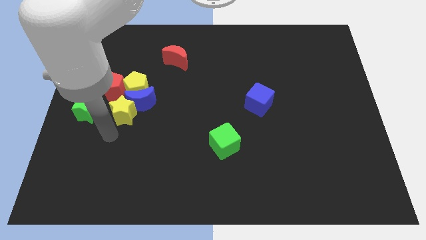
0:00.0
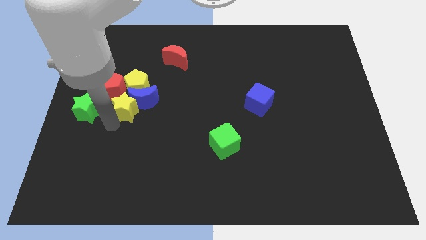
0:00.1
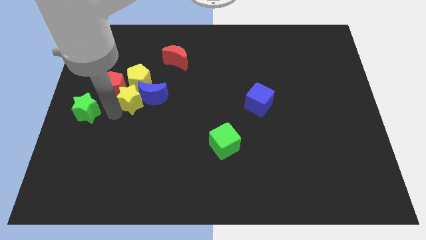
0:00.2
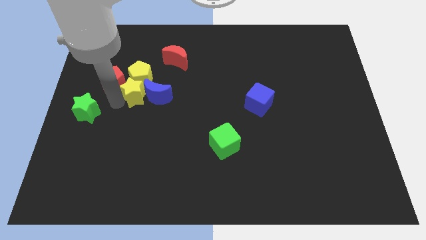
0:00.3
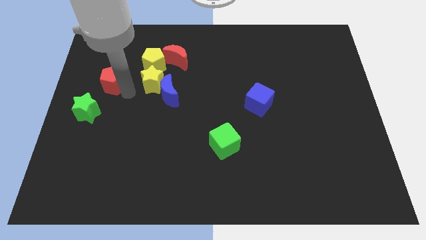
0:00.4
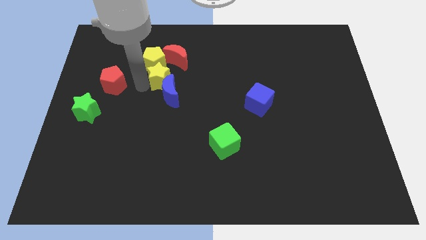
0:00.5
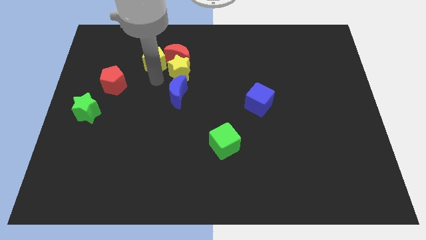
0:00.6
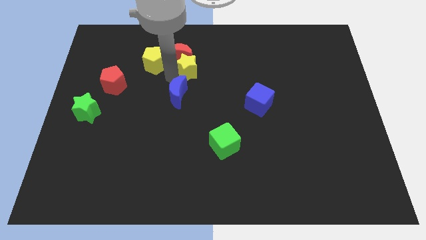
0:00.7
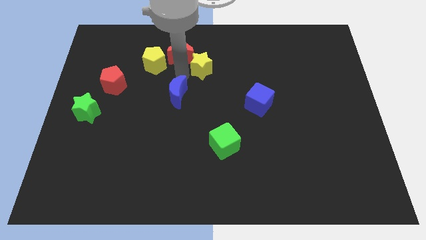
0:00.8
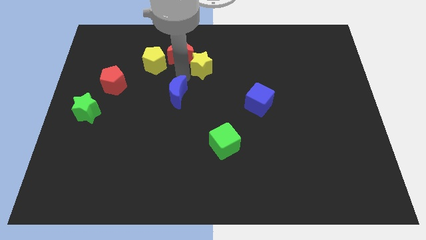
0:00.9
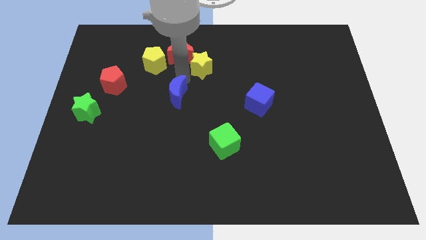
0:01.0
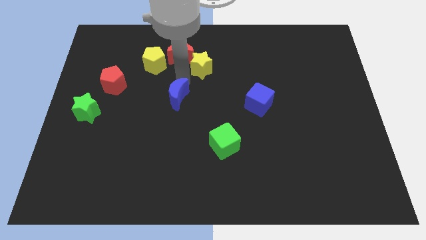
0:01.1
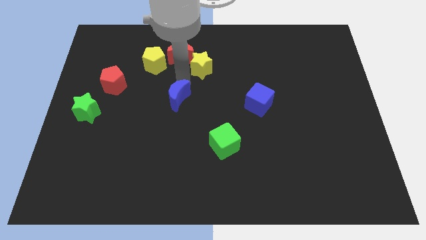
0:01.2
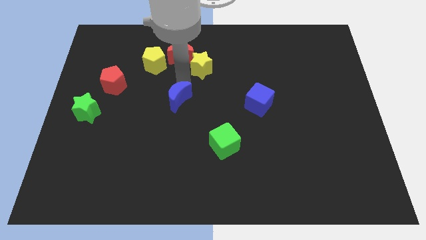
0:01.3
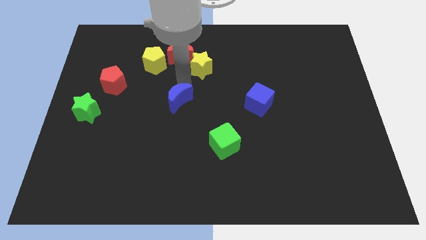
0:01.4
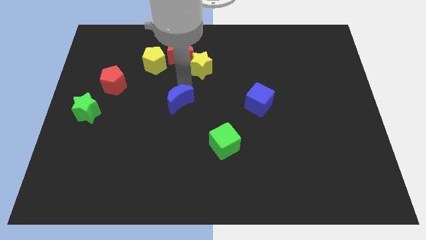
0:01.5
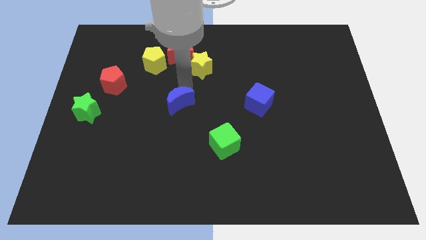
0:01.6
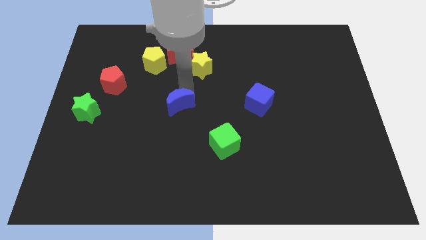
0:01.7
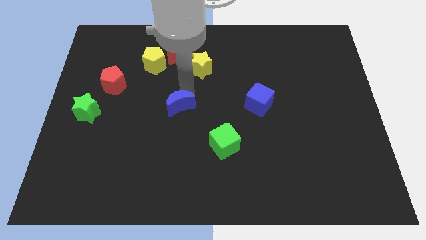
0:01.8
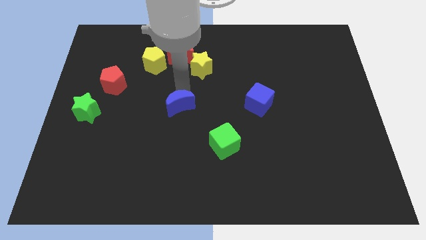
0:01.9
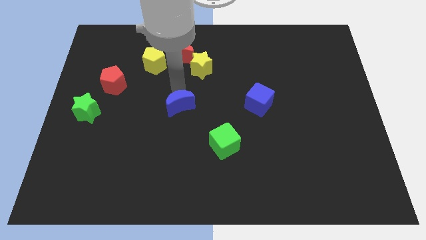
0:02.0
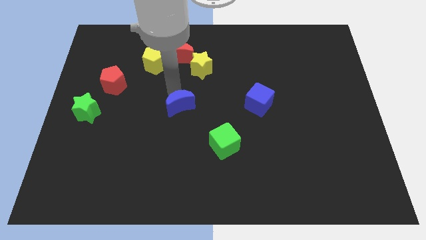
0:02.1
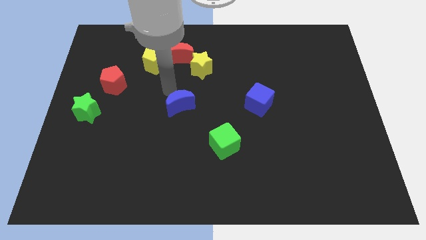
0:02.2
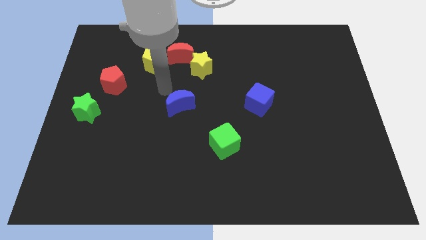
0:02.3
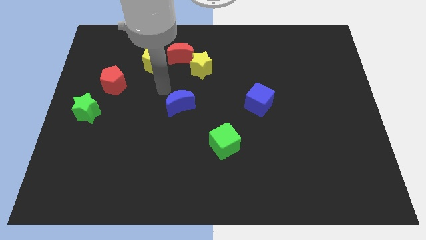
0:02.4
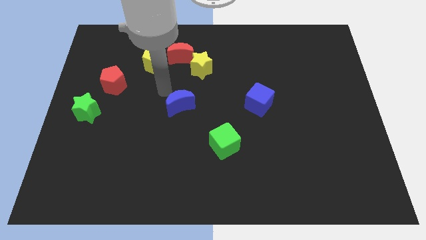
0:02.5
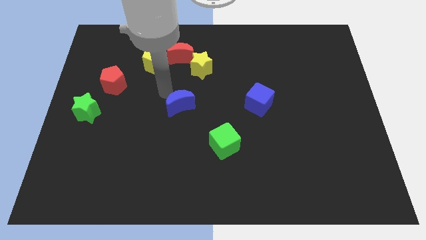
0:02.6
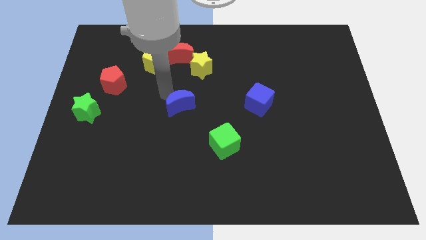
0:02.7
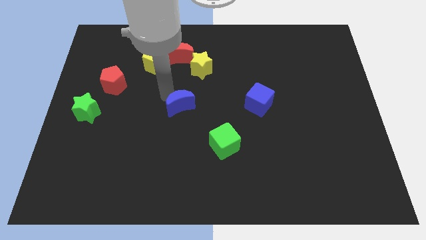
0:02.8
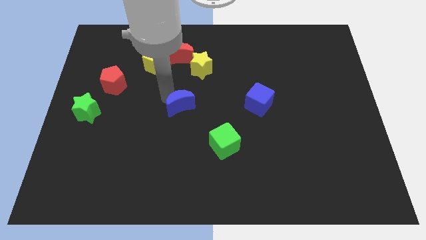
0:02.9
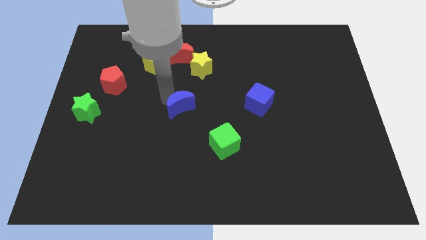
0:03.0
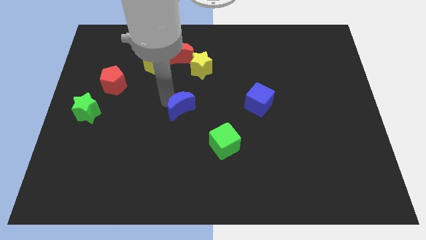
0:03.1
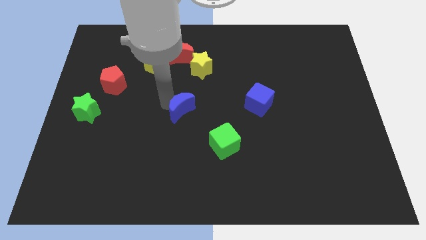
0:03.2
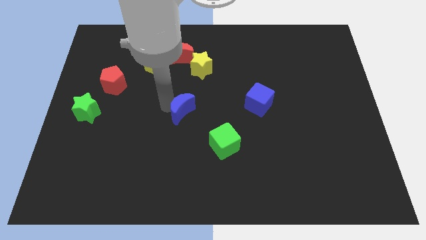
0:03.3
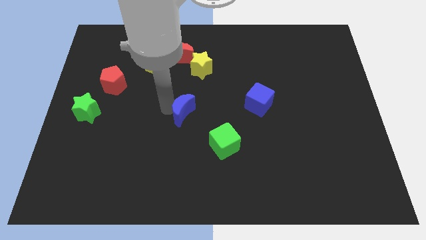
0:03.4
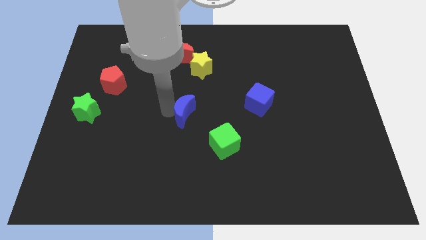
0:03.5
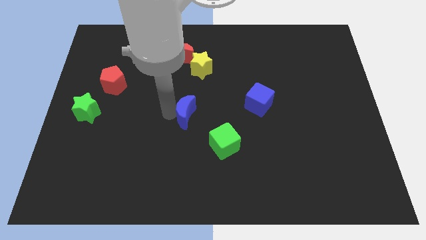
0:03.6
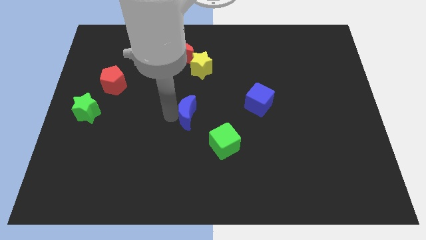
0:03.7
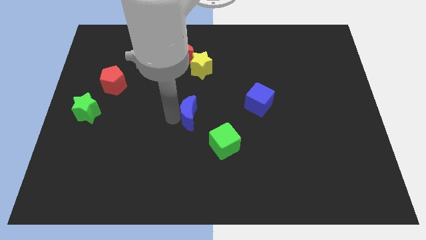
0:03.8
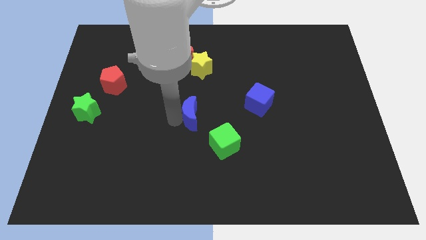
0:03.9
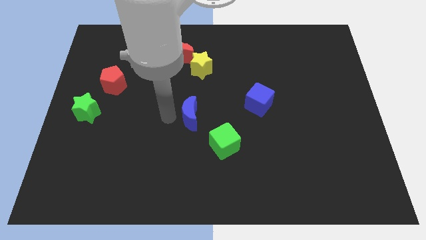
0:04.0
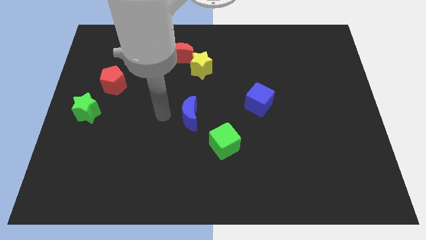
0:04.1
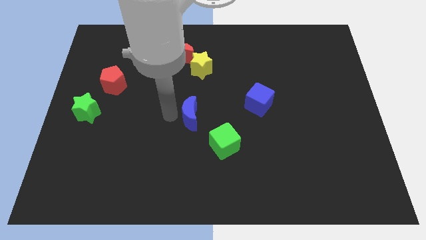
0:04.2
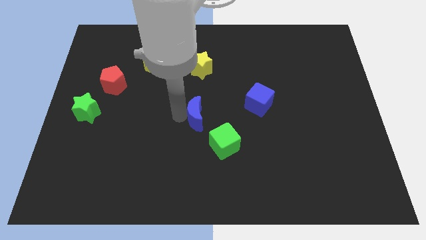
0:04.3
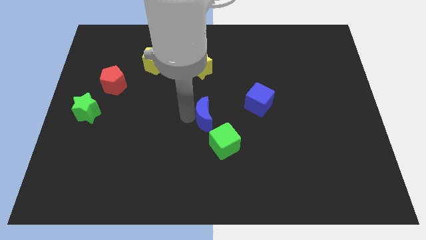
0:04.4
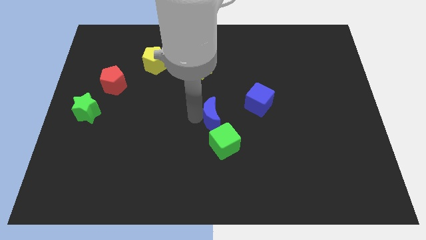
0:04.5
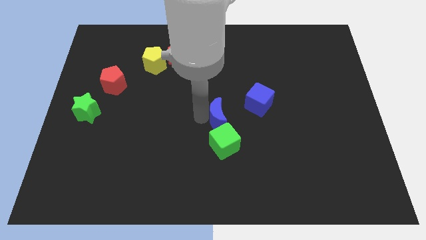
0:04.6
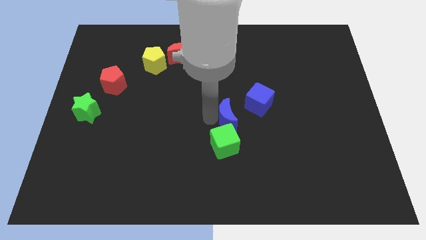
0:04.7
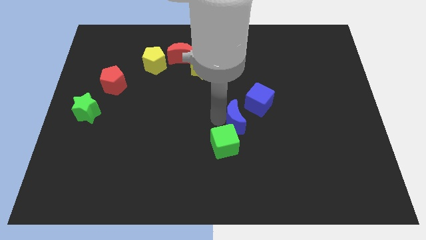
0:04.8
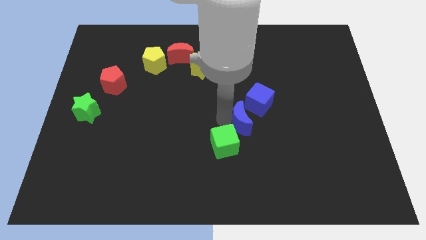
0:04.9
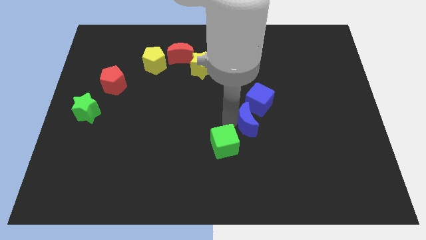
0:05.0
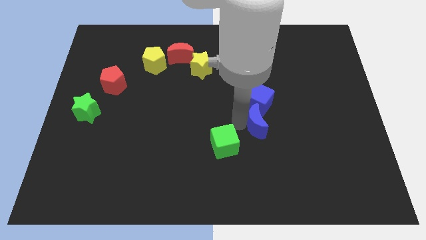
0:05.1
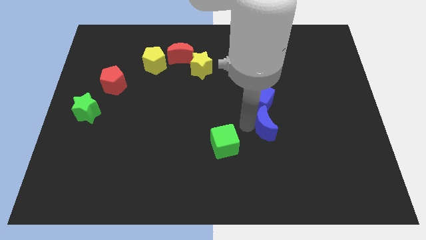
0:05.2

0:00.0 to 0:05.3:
slide the blue moon diagonally down and to the right of the blue cube

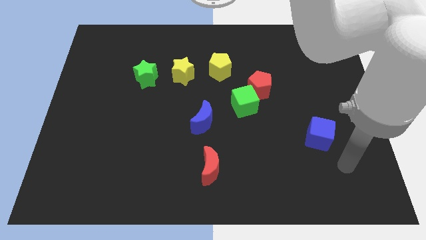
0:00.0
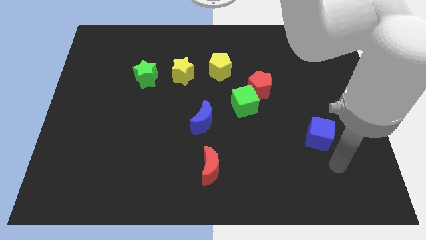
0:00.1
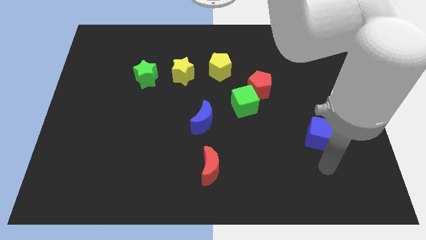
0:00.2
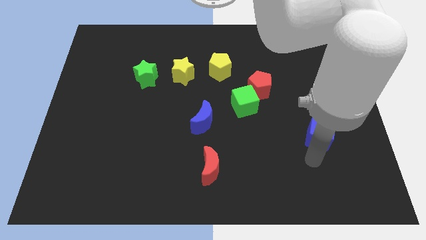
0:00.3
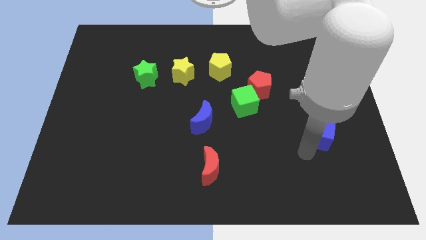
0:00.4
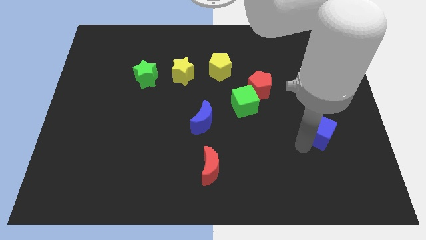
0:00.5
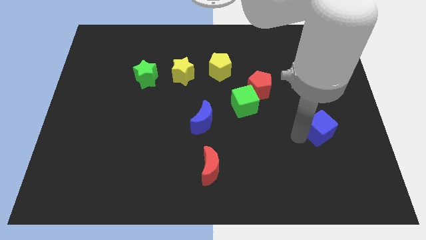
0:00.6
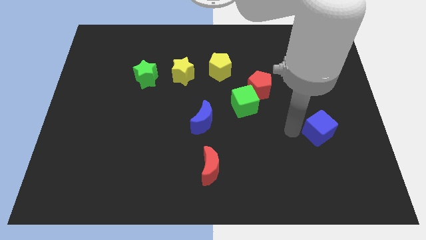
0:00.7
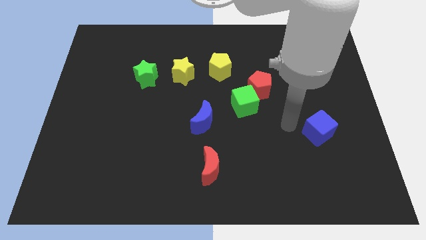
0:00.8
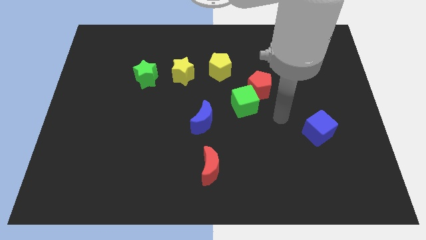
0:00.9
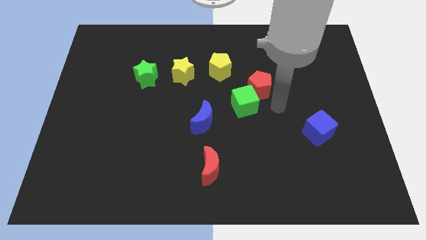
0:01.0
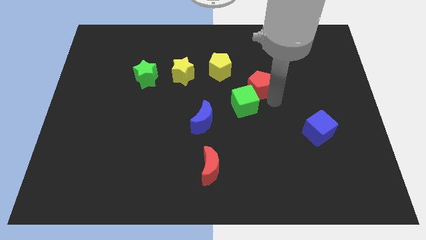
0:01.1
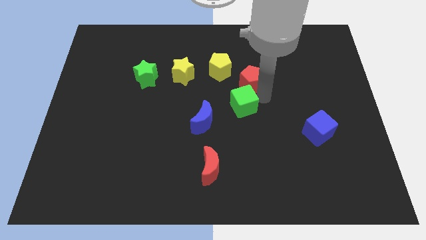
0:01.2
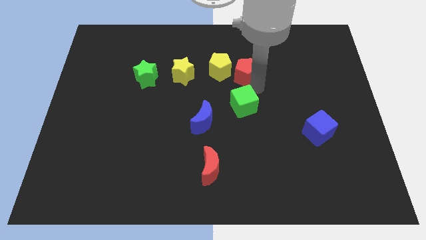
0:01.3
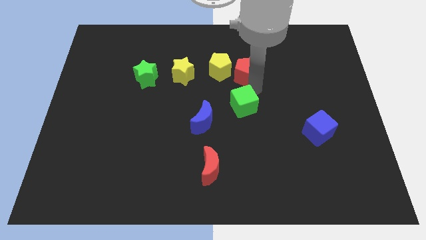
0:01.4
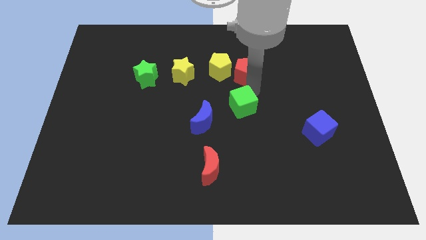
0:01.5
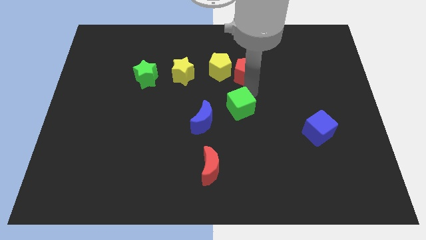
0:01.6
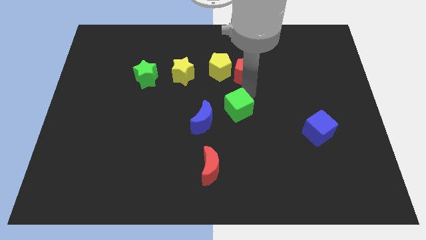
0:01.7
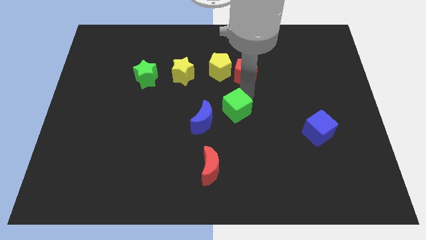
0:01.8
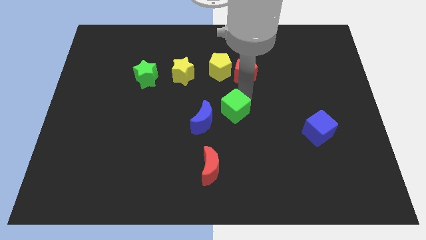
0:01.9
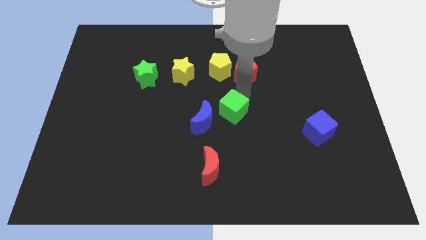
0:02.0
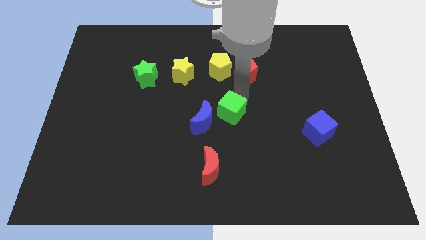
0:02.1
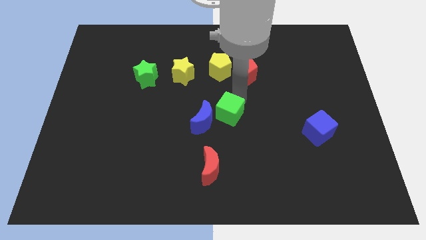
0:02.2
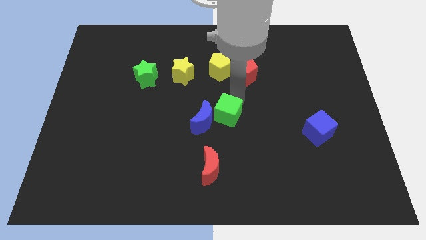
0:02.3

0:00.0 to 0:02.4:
slide the green cube to the top side of the red moon
